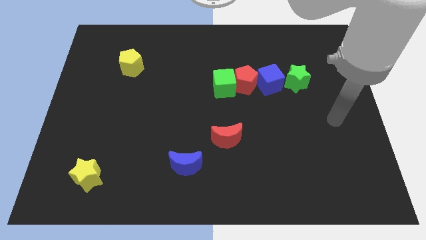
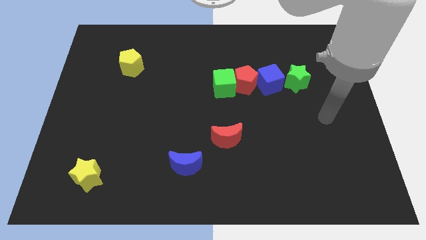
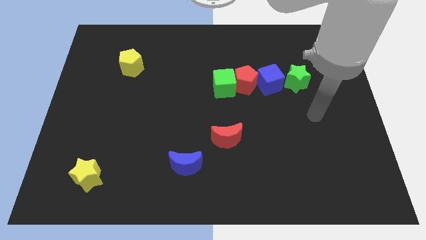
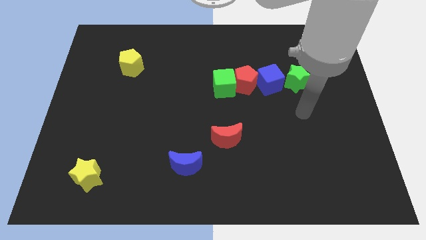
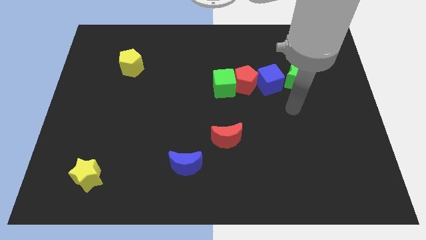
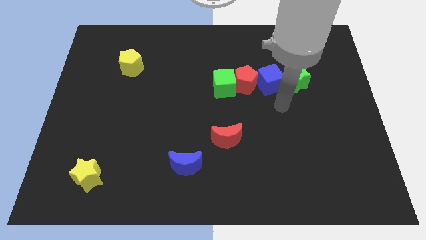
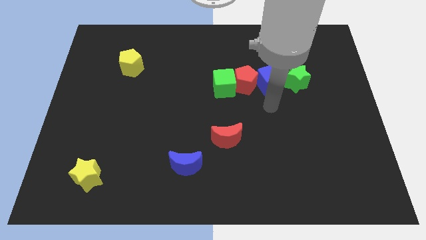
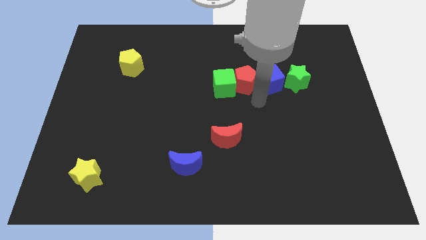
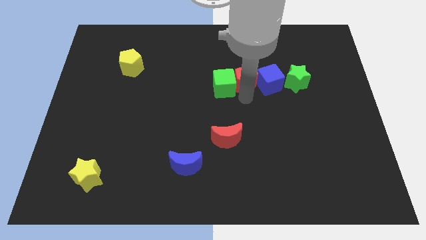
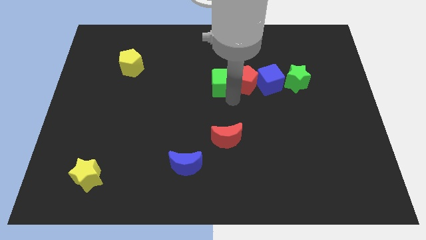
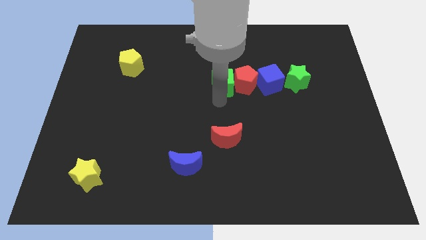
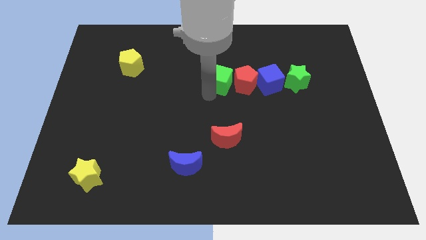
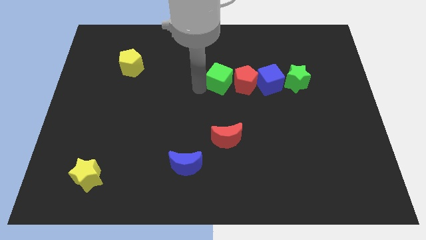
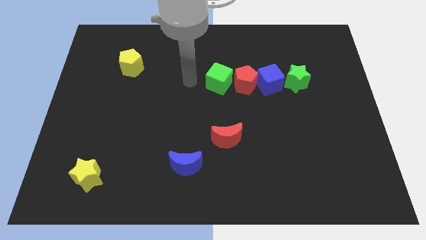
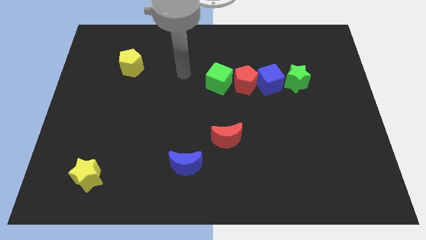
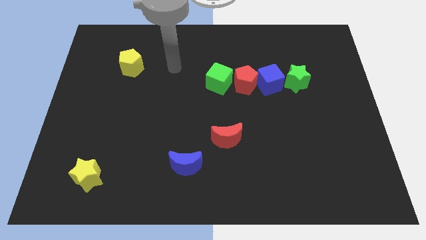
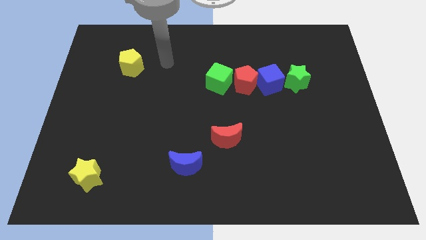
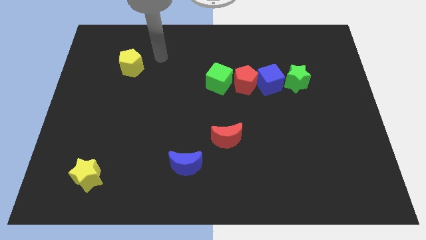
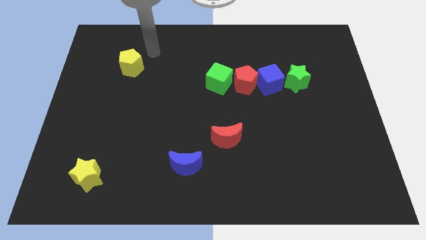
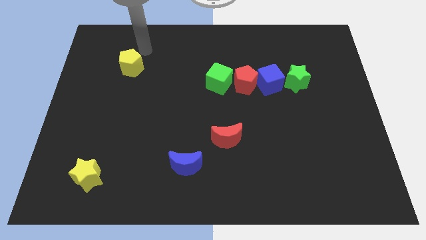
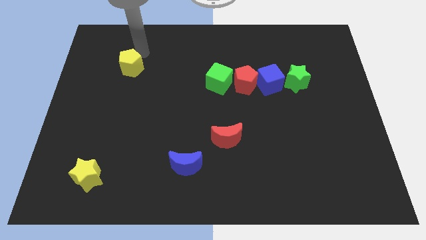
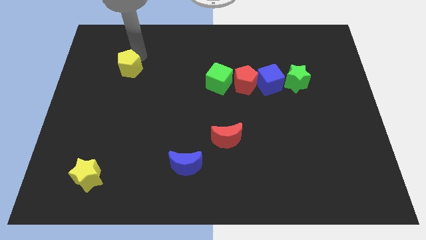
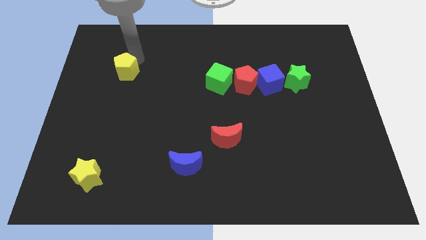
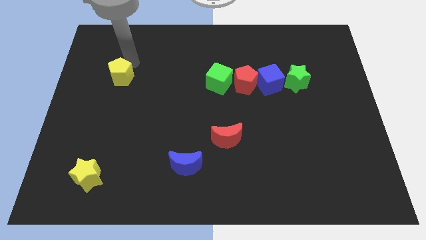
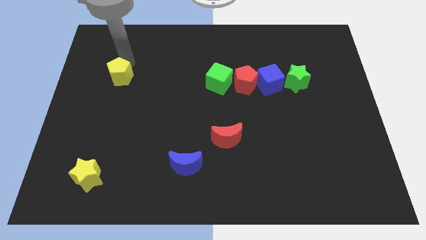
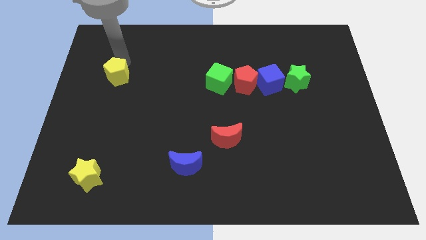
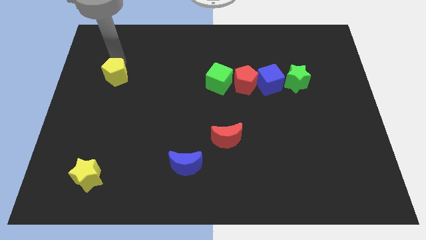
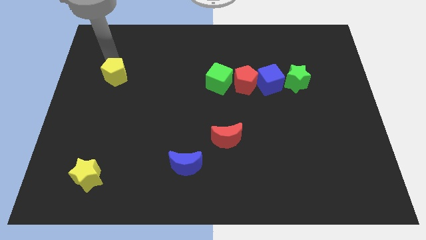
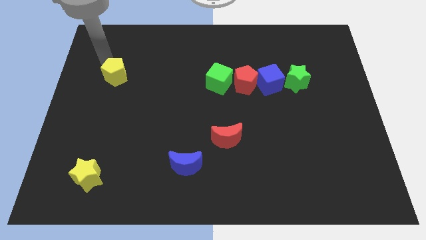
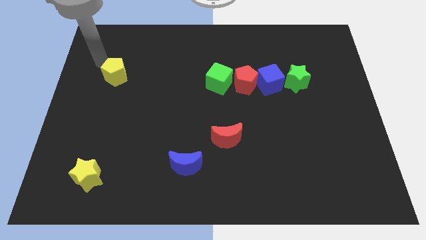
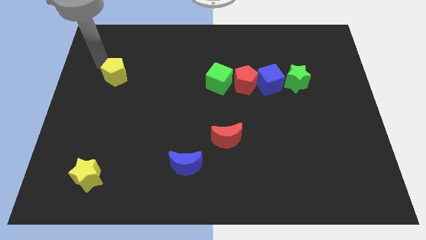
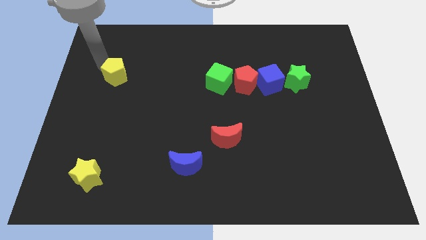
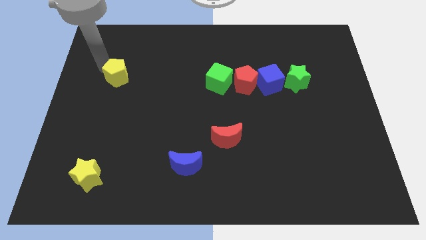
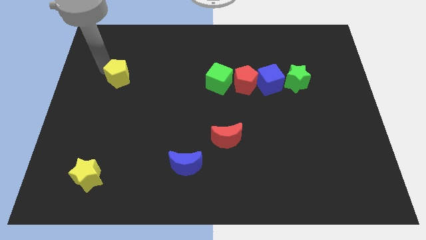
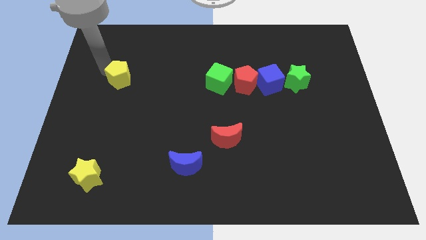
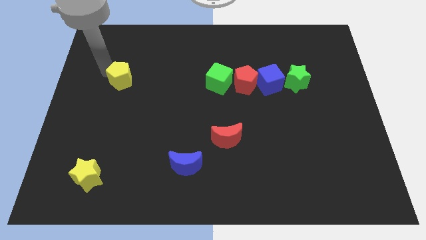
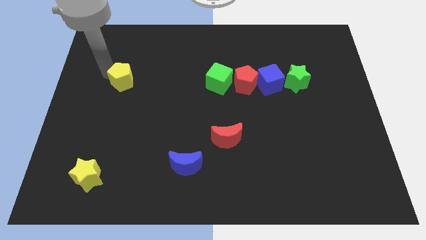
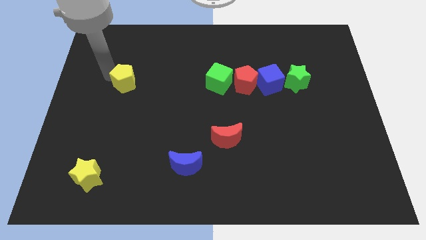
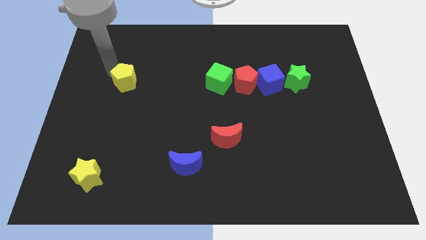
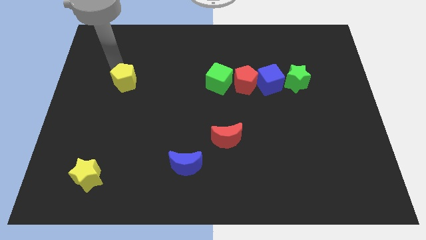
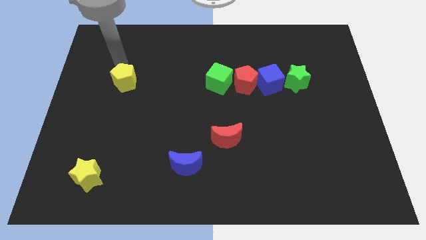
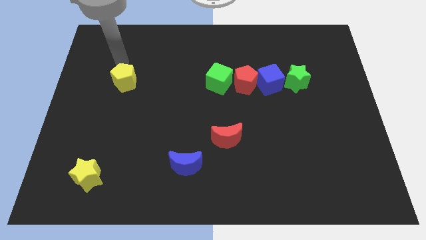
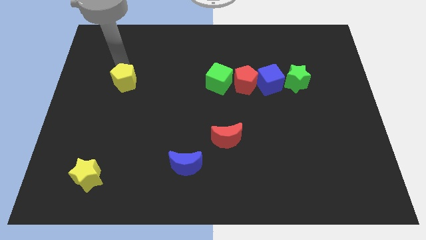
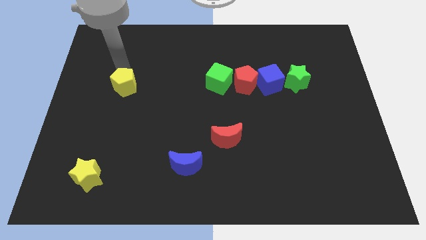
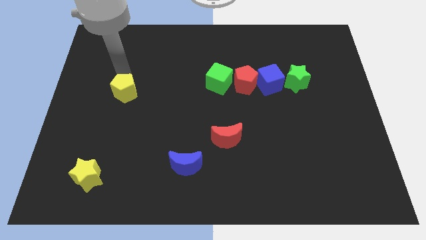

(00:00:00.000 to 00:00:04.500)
slide the yellow pentagon a little bit down

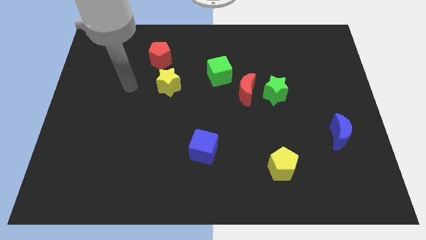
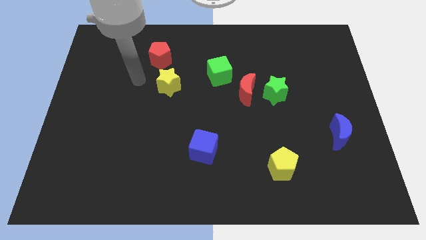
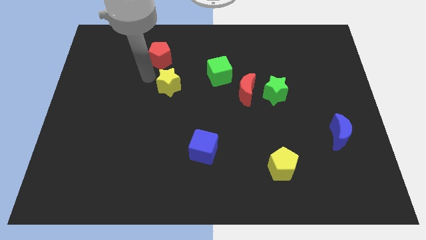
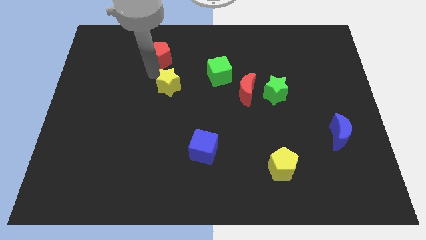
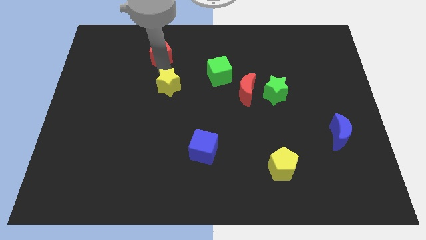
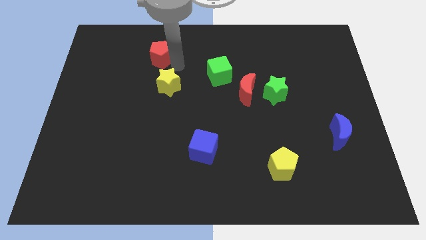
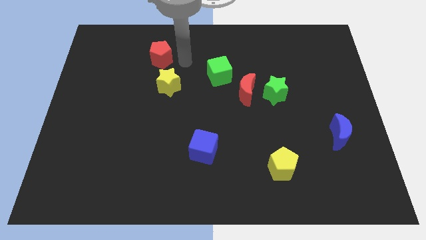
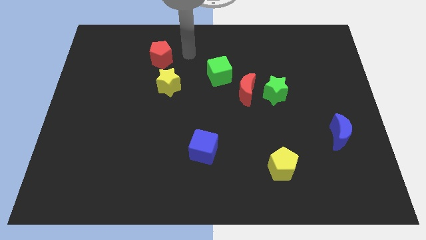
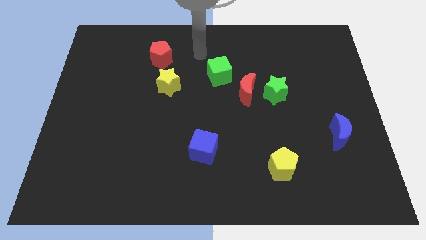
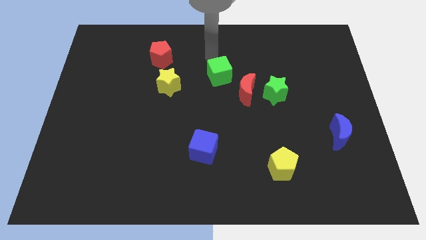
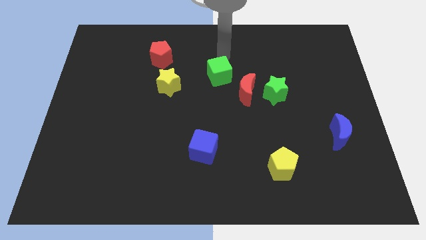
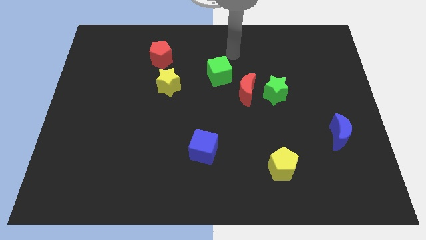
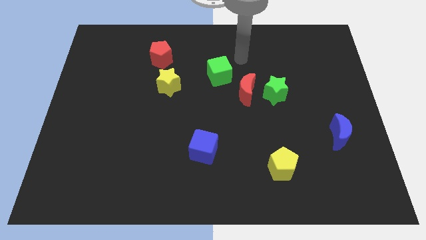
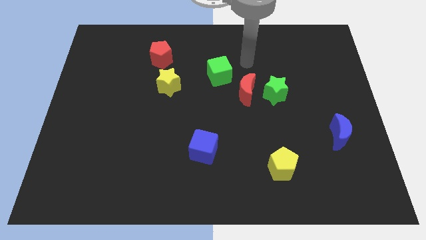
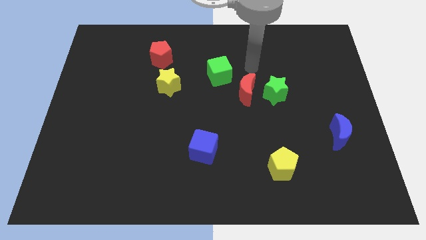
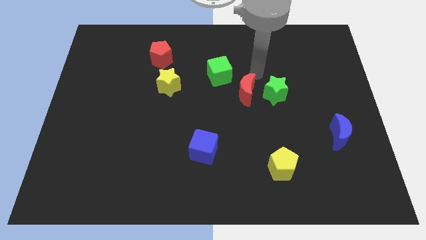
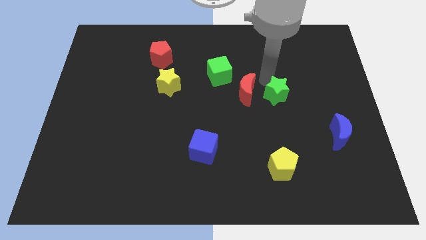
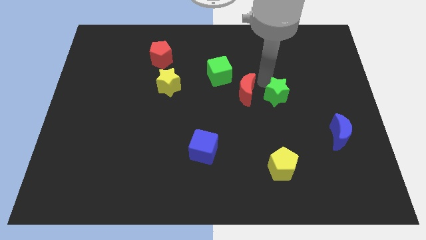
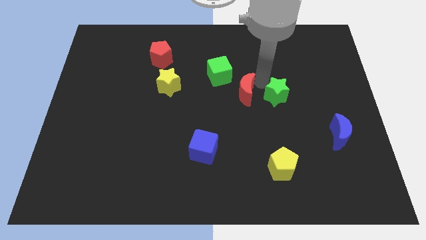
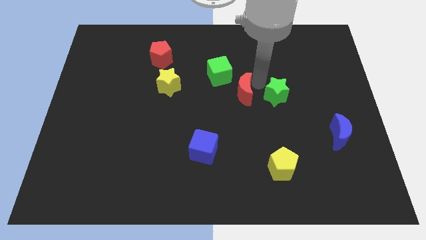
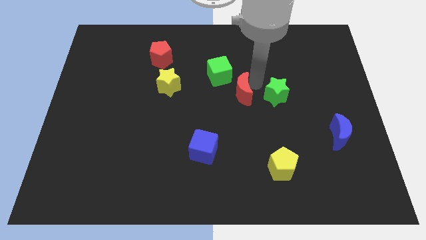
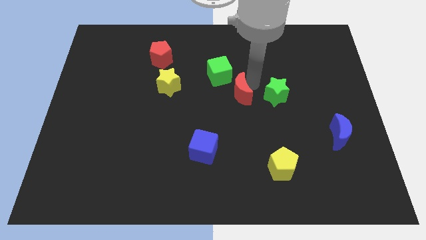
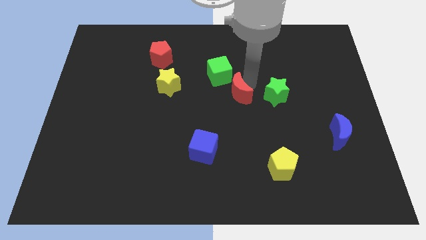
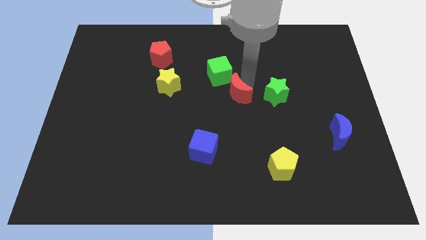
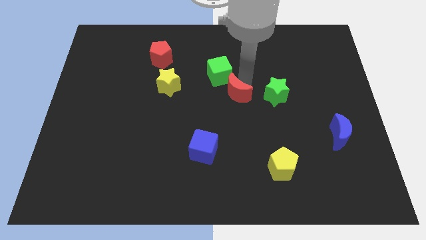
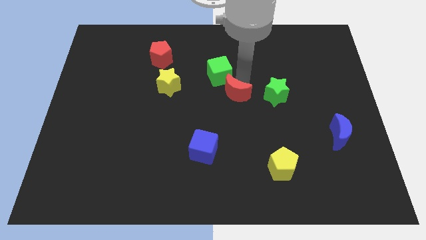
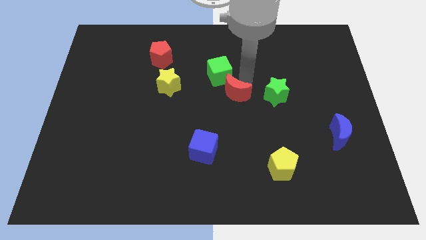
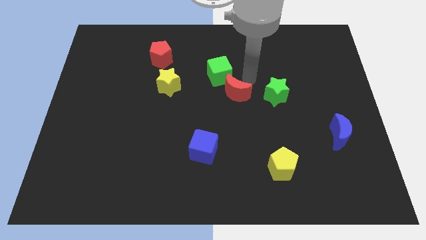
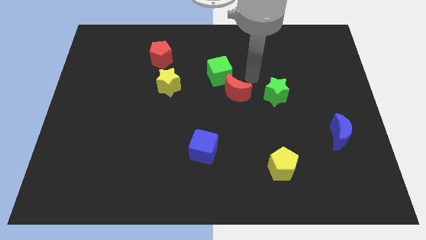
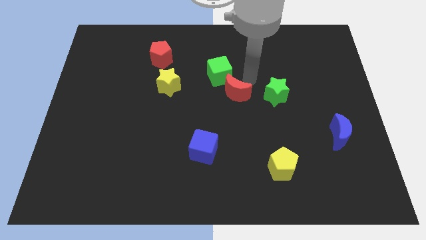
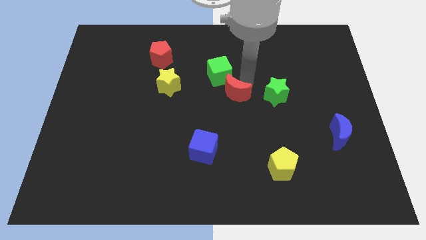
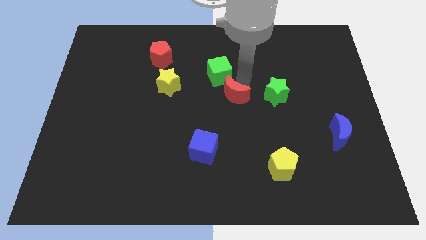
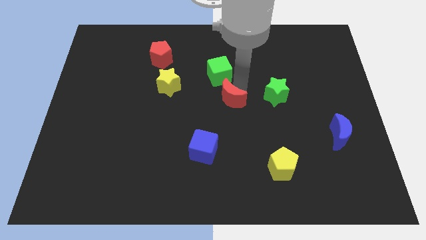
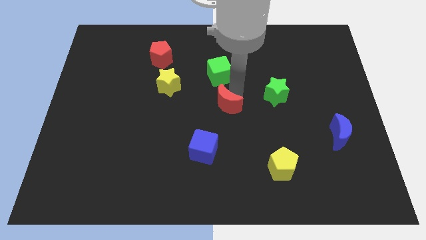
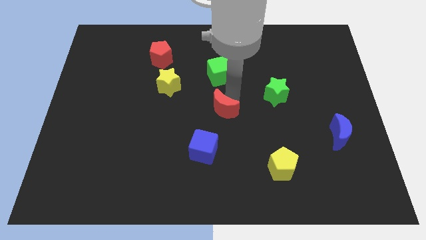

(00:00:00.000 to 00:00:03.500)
move the red moon a little downwards and to the left diagonally

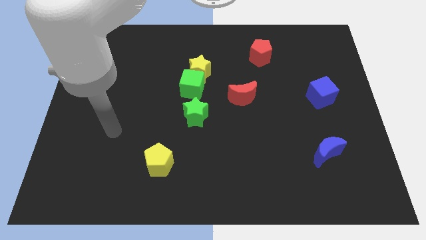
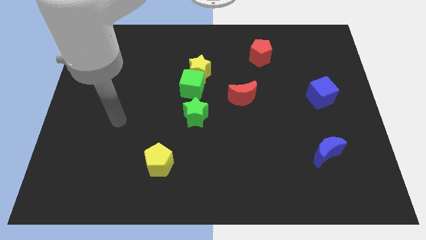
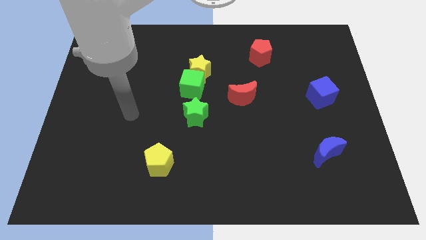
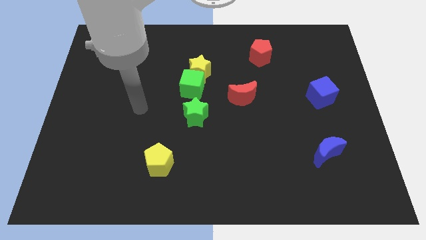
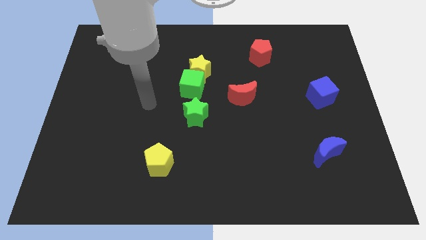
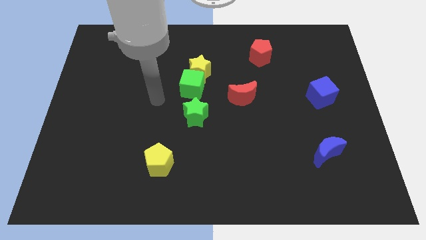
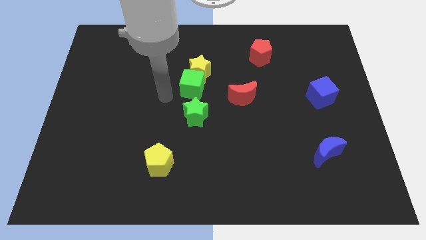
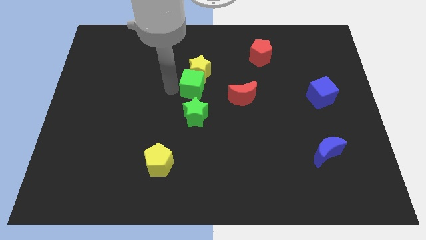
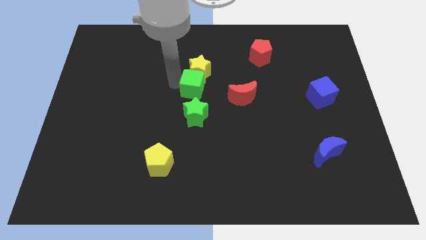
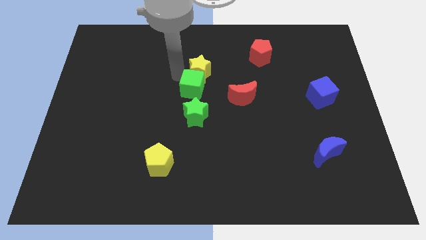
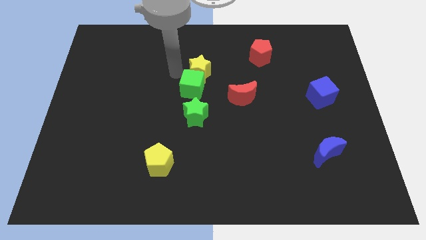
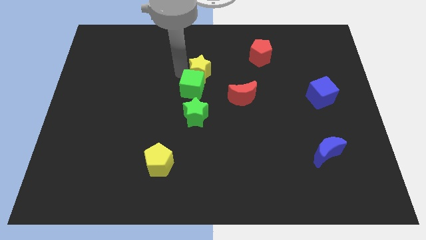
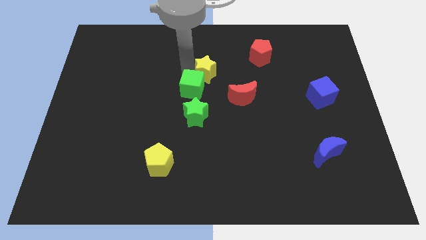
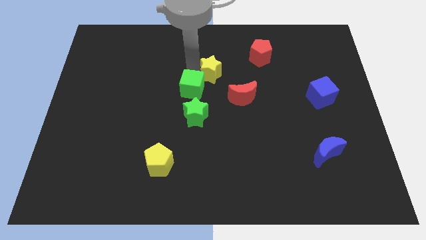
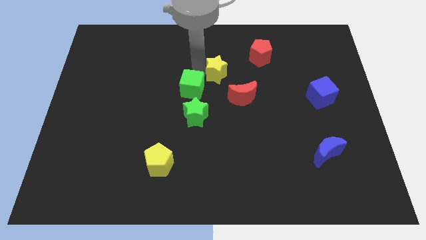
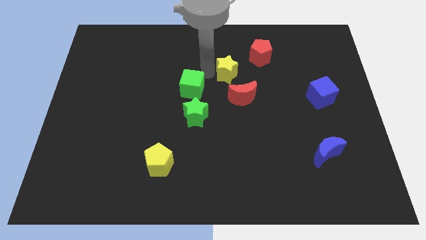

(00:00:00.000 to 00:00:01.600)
slightly move the yellow star to the right
